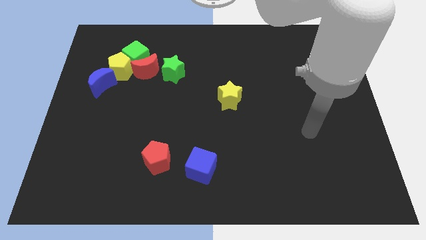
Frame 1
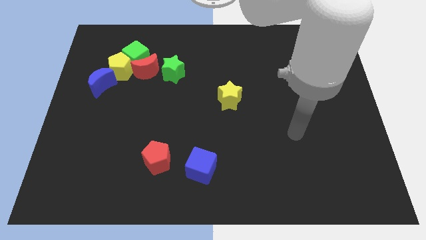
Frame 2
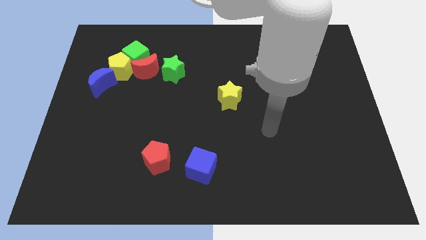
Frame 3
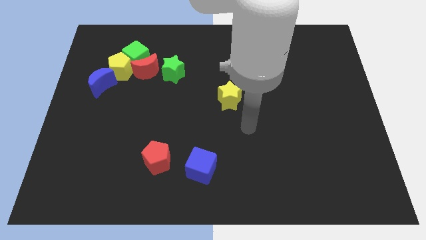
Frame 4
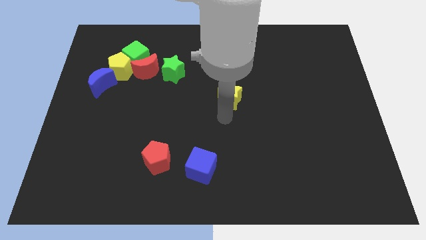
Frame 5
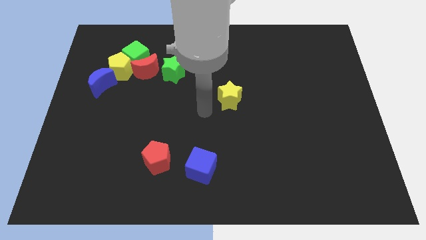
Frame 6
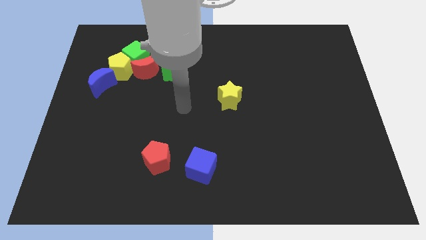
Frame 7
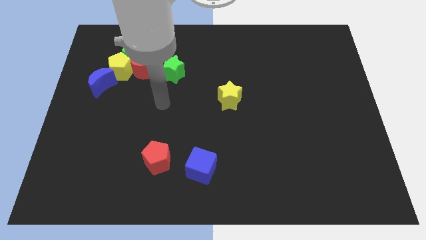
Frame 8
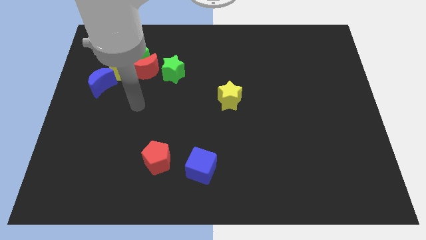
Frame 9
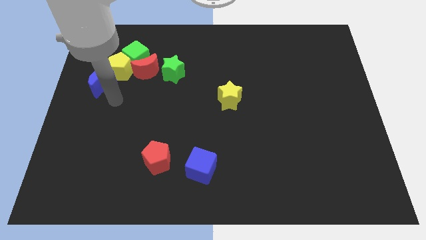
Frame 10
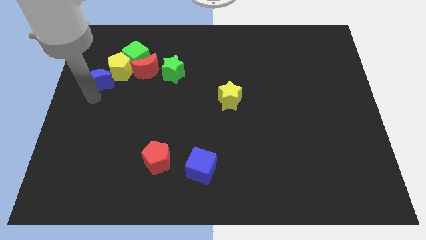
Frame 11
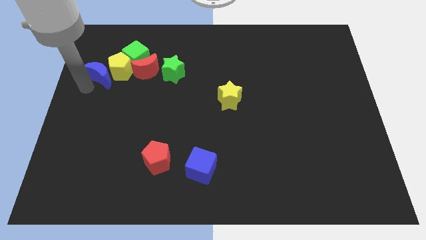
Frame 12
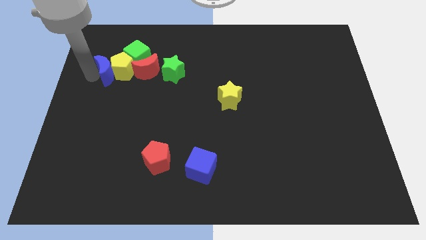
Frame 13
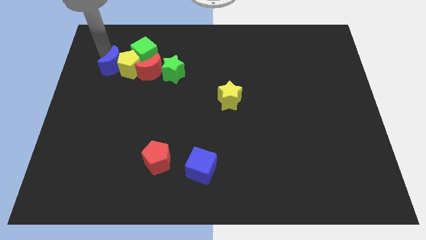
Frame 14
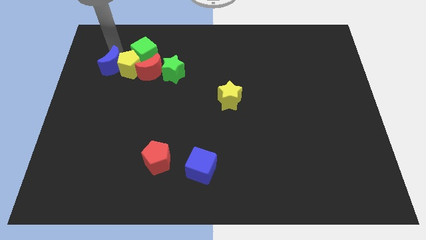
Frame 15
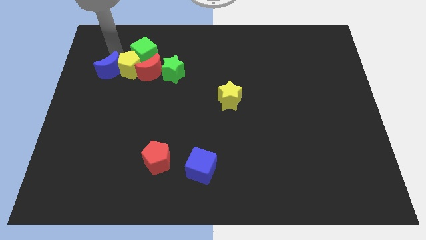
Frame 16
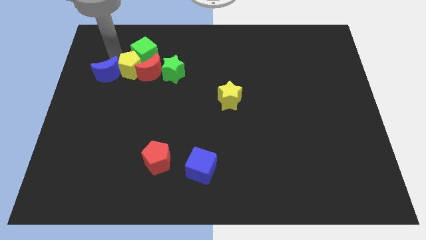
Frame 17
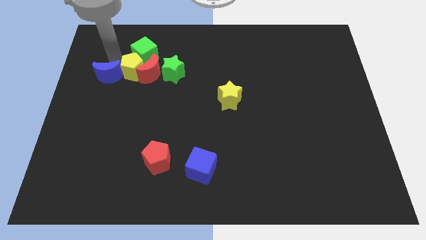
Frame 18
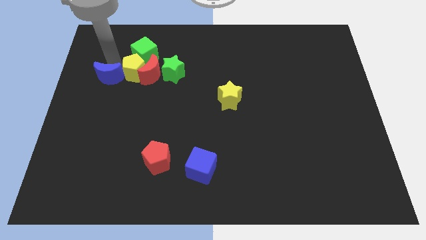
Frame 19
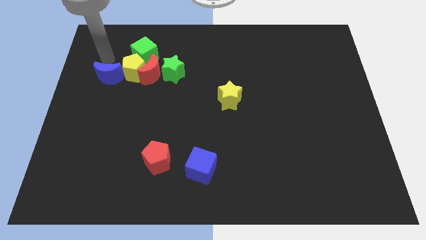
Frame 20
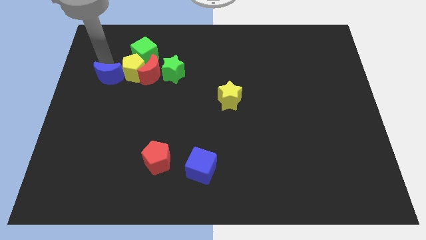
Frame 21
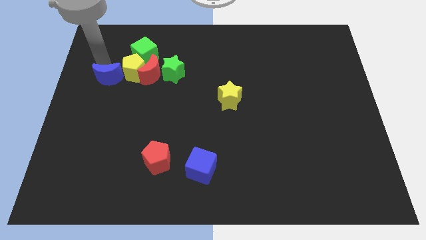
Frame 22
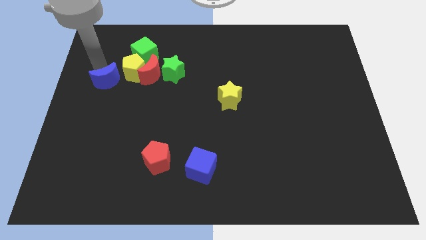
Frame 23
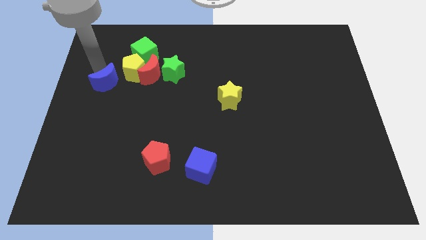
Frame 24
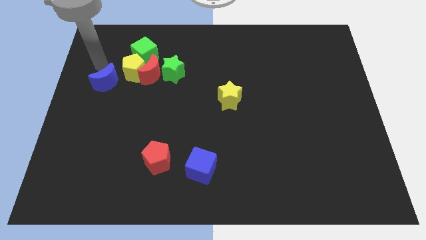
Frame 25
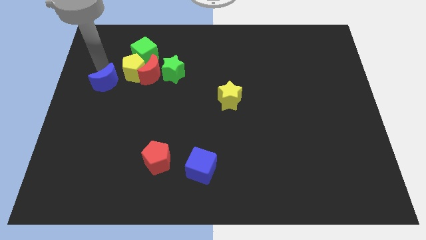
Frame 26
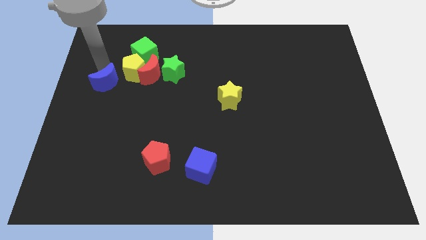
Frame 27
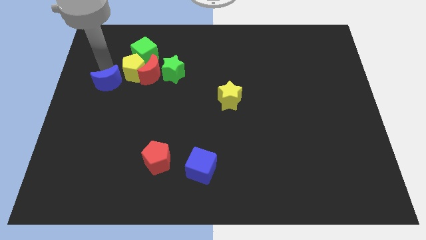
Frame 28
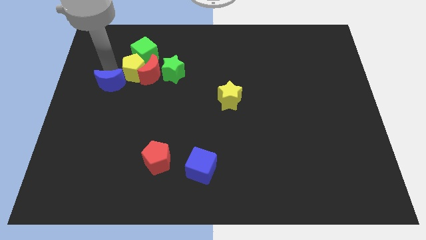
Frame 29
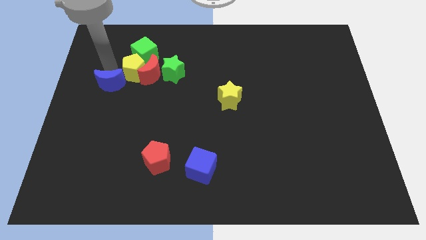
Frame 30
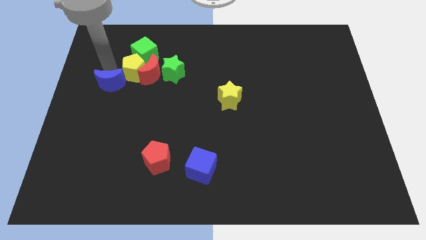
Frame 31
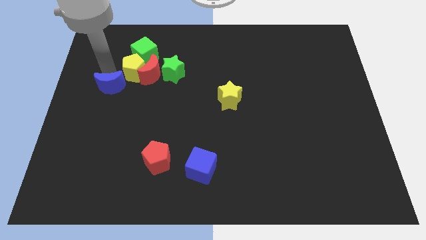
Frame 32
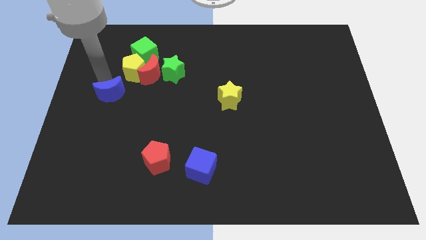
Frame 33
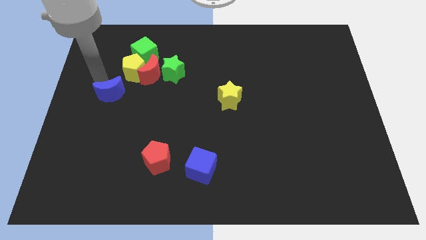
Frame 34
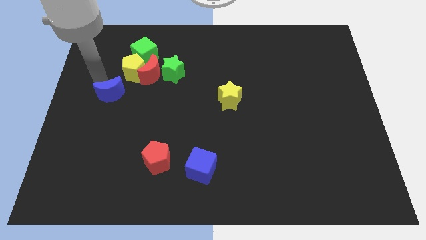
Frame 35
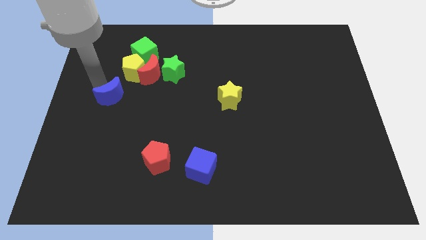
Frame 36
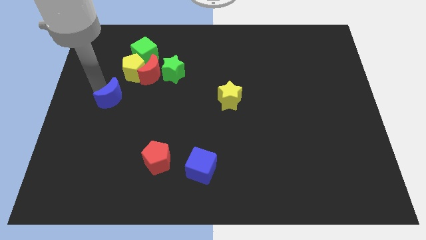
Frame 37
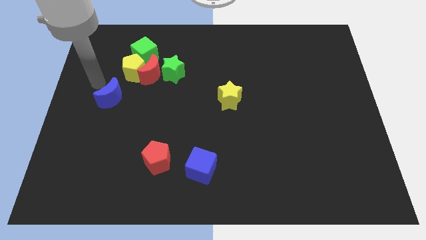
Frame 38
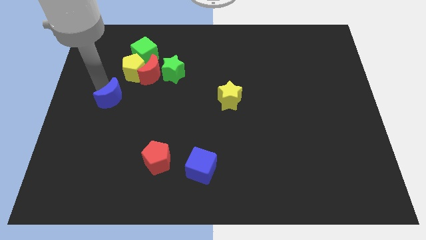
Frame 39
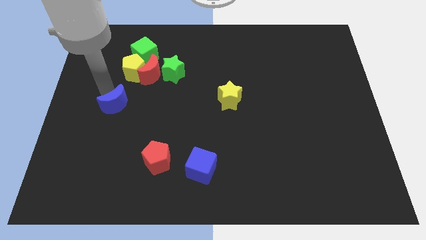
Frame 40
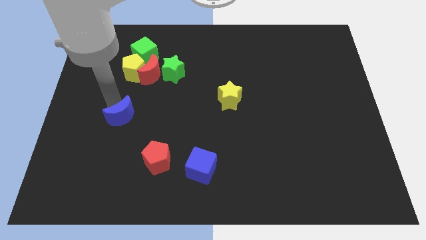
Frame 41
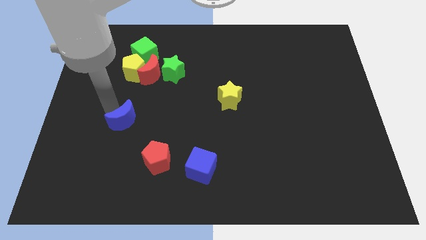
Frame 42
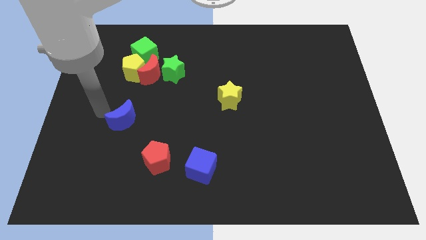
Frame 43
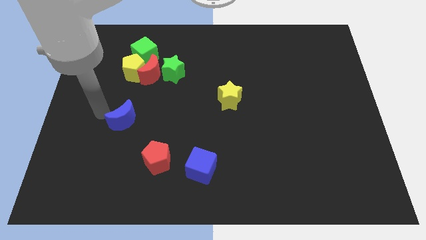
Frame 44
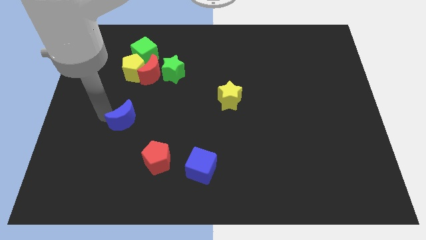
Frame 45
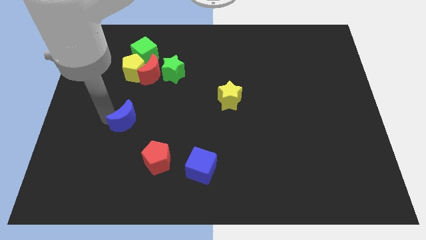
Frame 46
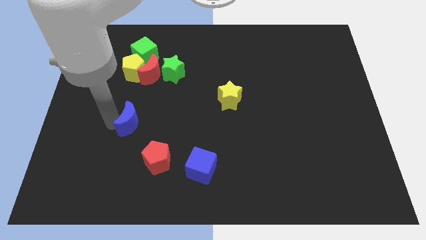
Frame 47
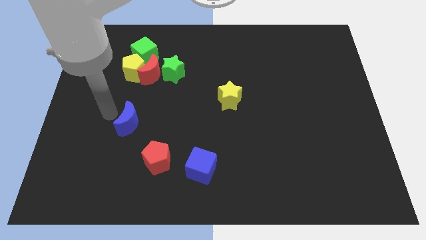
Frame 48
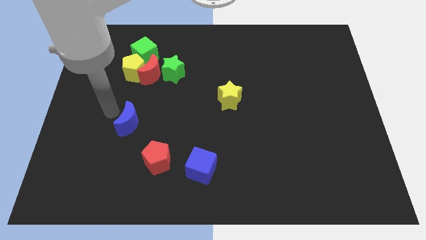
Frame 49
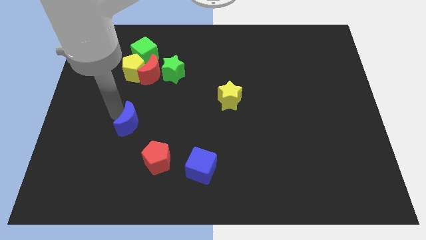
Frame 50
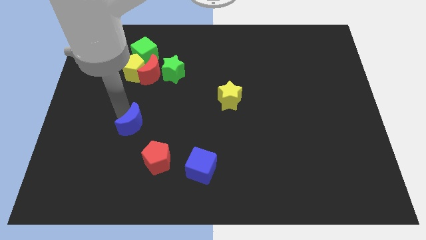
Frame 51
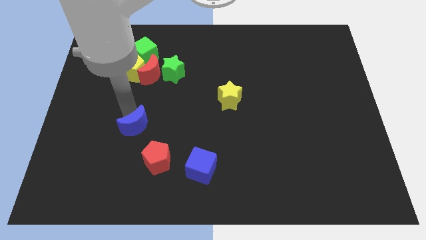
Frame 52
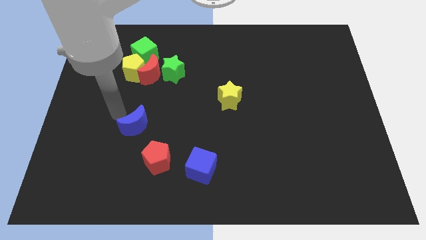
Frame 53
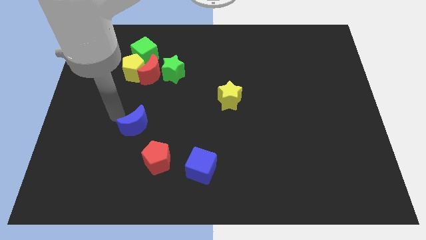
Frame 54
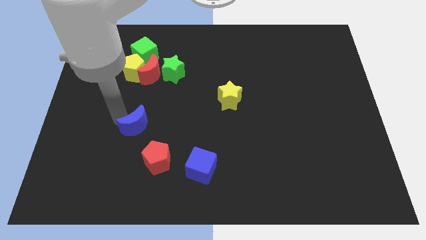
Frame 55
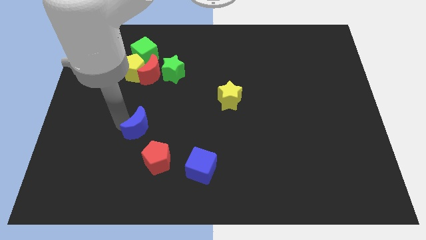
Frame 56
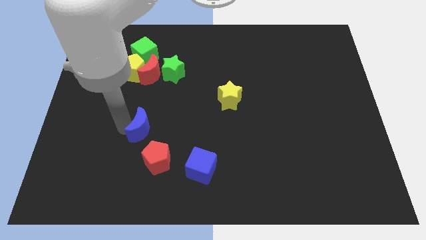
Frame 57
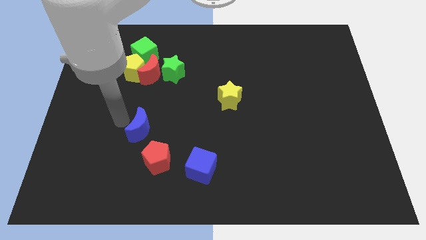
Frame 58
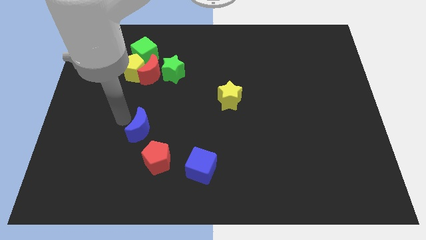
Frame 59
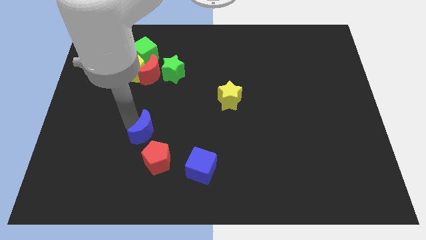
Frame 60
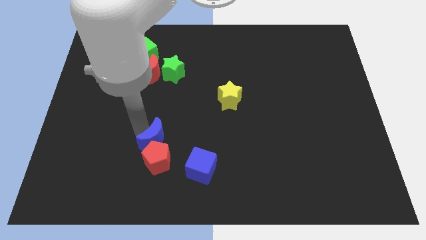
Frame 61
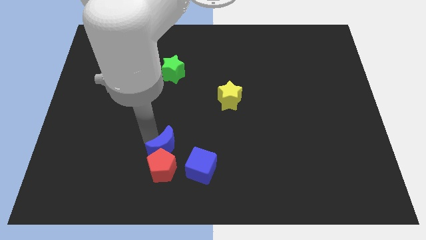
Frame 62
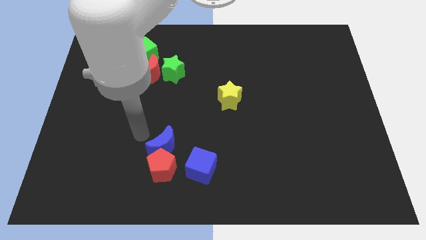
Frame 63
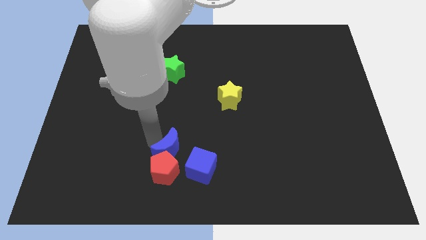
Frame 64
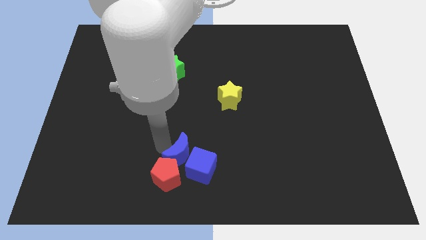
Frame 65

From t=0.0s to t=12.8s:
move the blue moon towards the blue cube

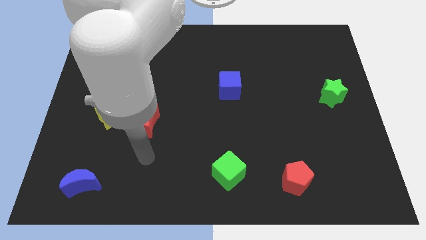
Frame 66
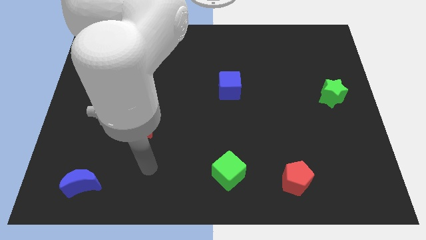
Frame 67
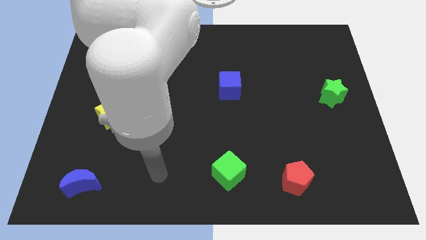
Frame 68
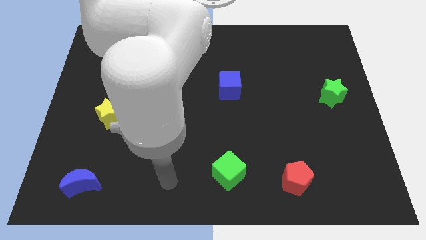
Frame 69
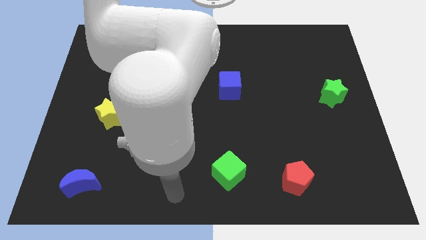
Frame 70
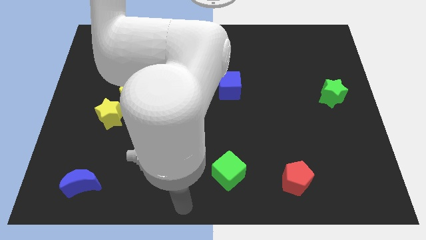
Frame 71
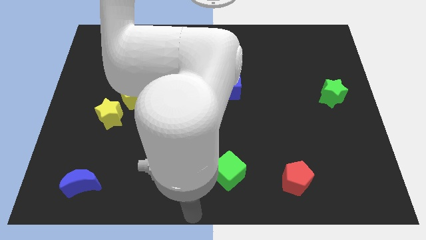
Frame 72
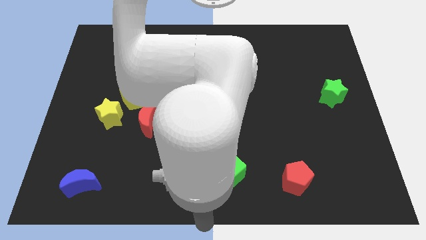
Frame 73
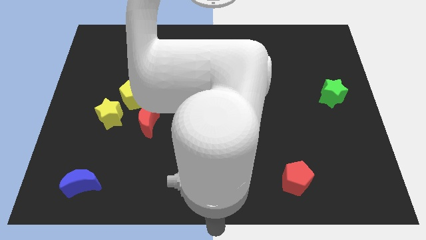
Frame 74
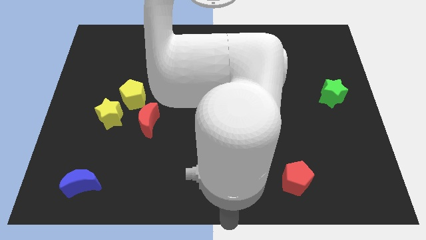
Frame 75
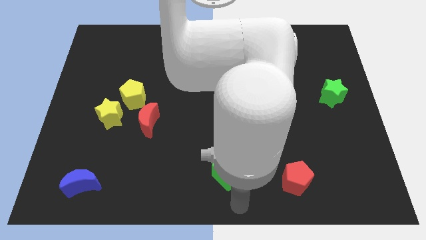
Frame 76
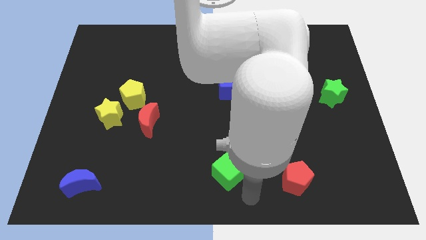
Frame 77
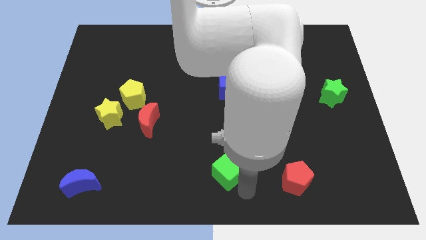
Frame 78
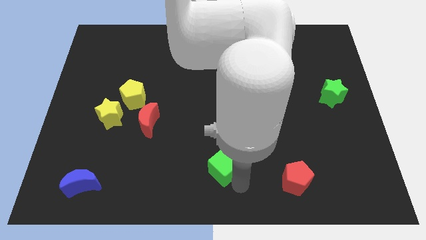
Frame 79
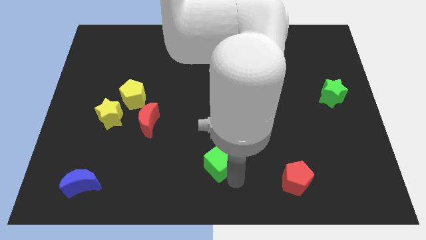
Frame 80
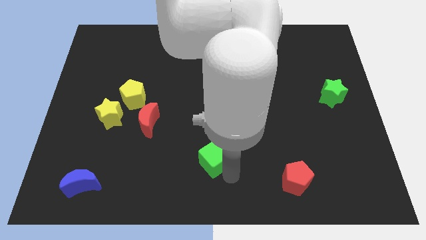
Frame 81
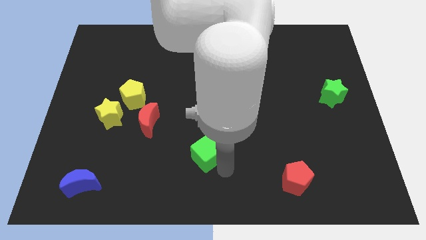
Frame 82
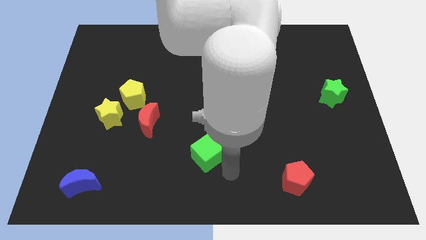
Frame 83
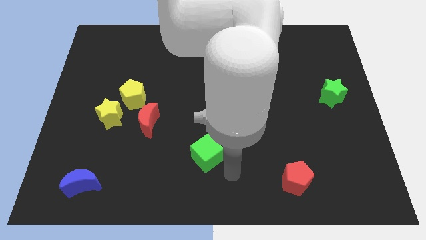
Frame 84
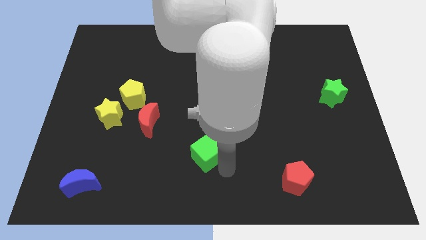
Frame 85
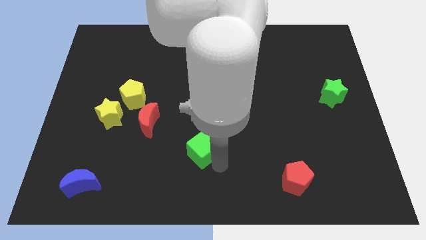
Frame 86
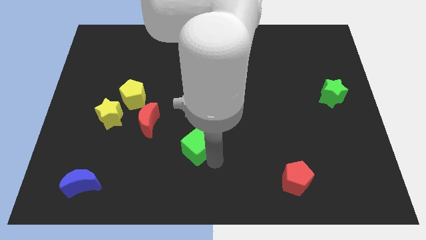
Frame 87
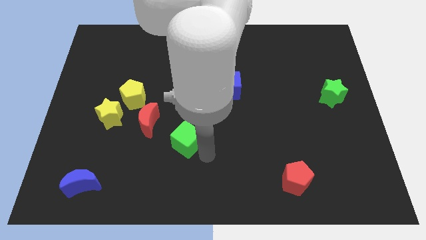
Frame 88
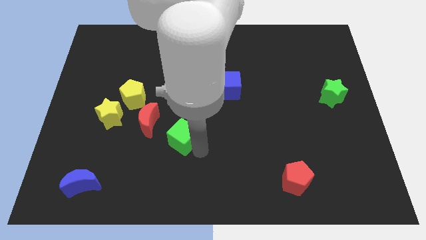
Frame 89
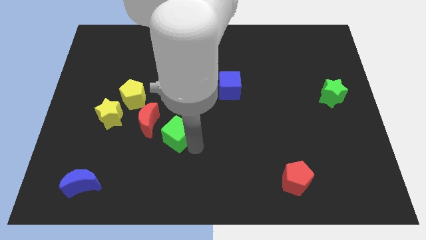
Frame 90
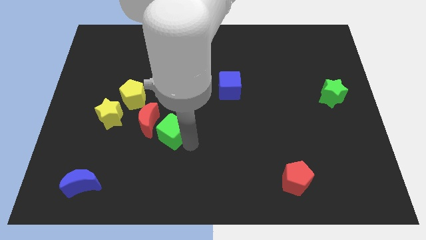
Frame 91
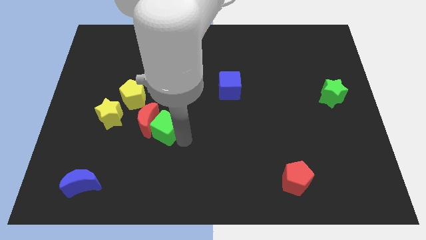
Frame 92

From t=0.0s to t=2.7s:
put the green cube to the red moon
